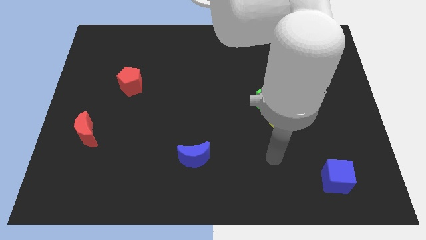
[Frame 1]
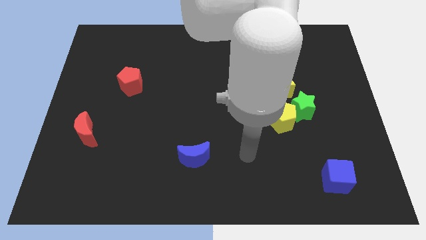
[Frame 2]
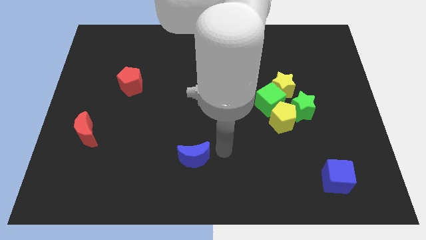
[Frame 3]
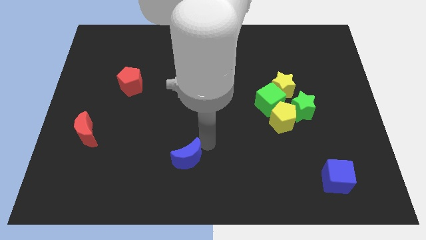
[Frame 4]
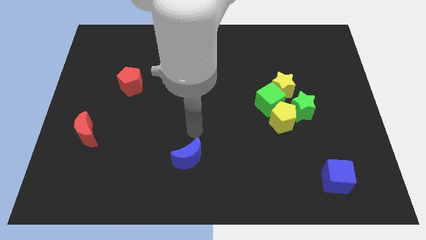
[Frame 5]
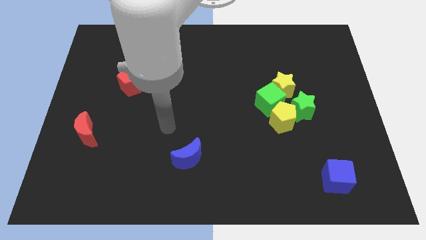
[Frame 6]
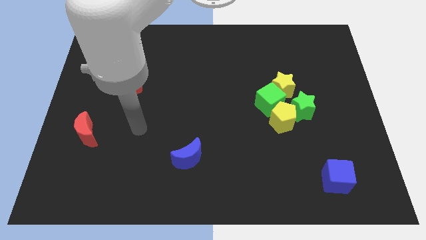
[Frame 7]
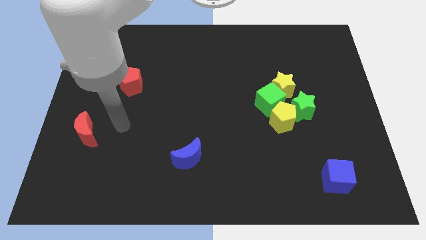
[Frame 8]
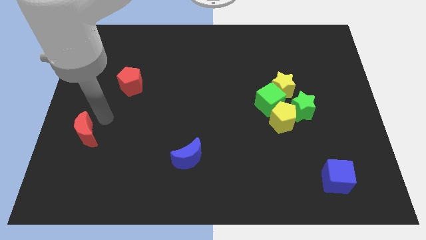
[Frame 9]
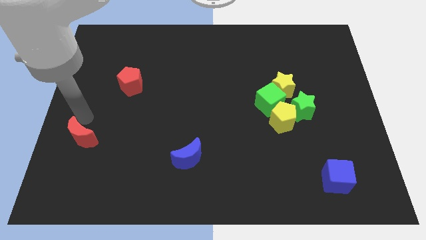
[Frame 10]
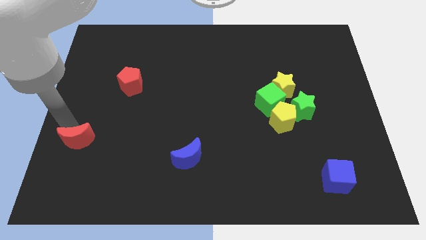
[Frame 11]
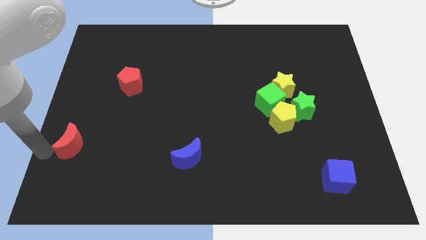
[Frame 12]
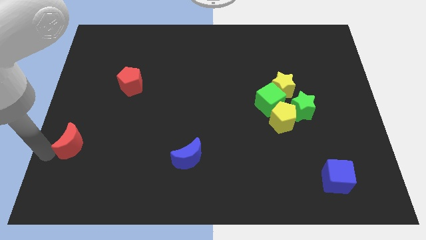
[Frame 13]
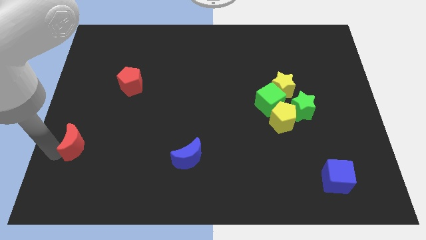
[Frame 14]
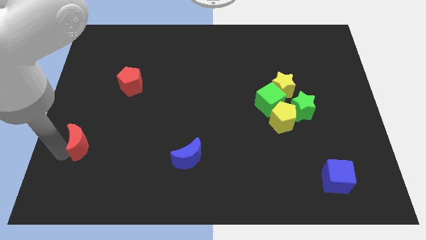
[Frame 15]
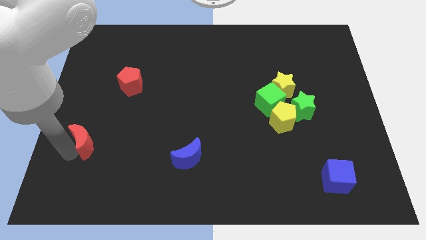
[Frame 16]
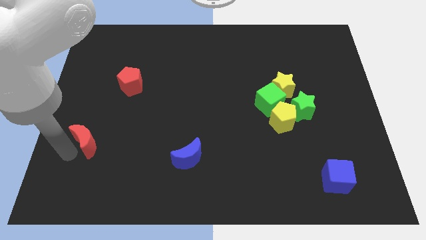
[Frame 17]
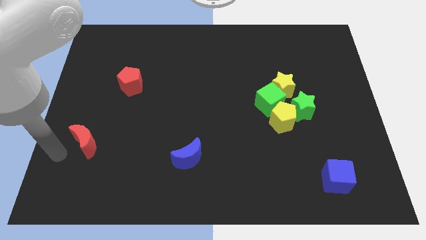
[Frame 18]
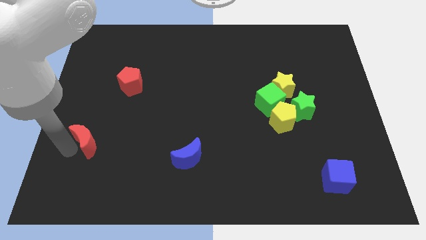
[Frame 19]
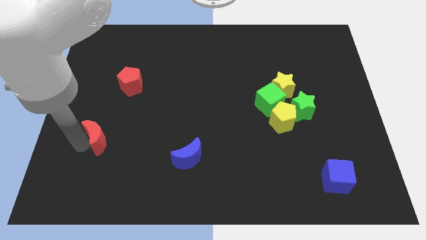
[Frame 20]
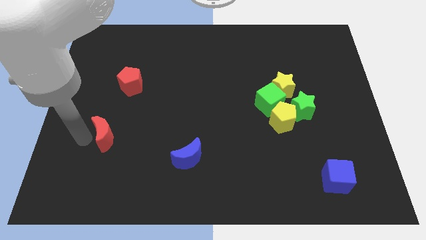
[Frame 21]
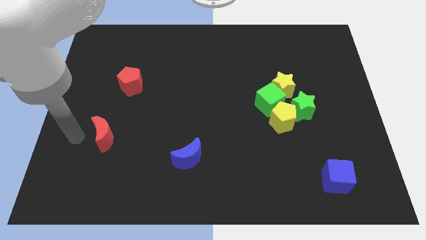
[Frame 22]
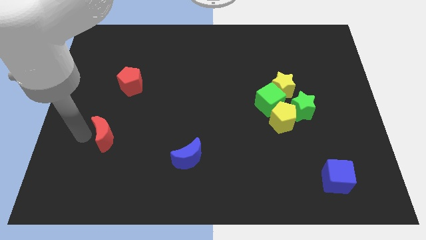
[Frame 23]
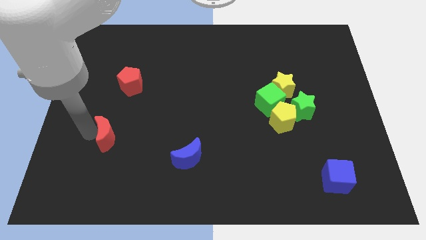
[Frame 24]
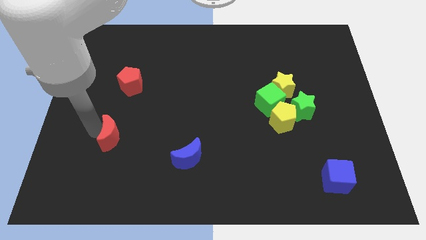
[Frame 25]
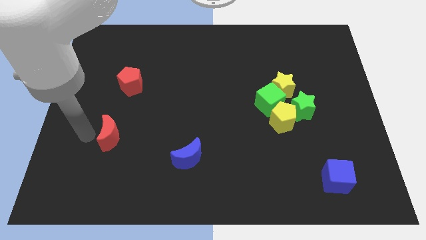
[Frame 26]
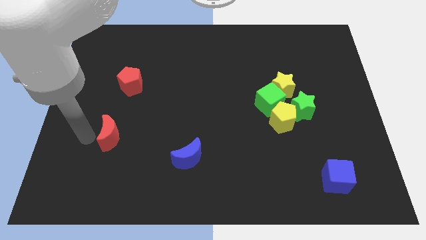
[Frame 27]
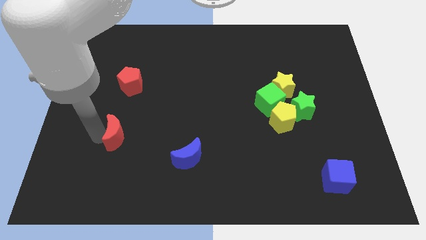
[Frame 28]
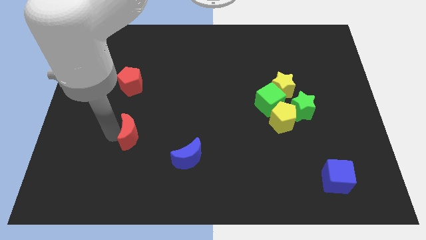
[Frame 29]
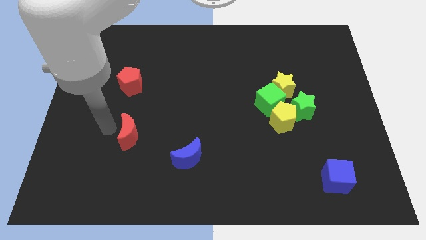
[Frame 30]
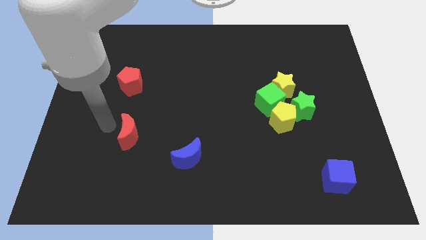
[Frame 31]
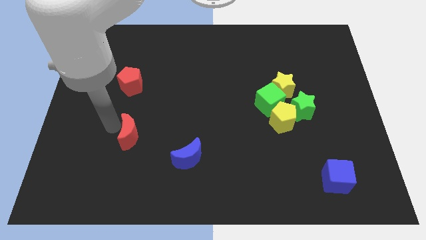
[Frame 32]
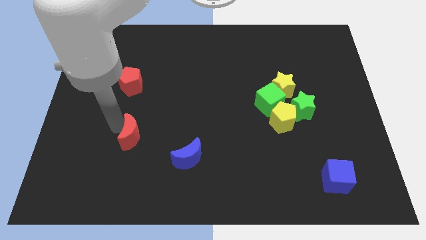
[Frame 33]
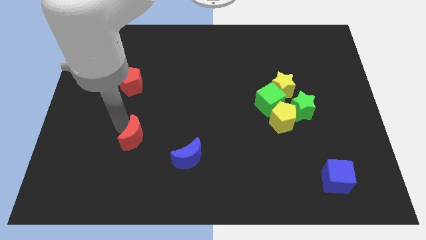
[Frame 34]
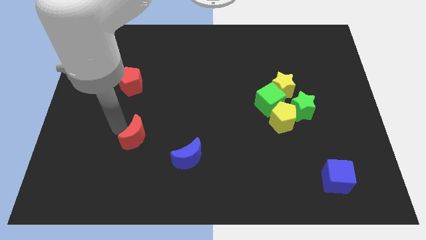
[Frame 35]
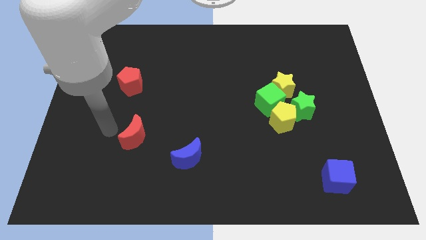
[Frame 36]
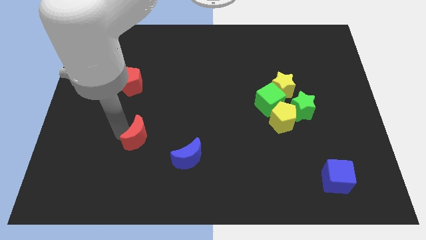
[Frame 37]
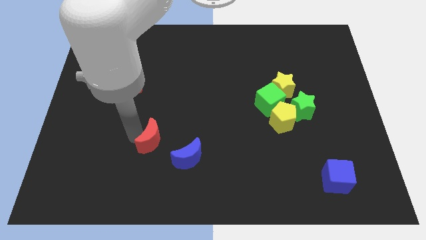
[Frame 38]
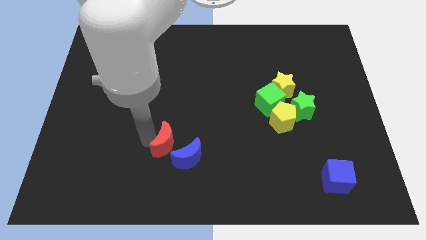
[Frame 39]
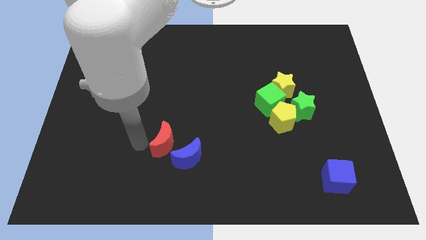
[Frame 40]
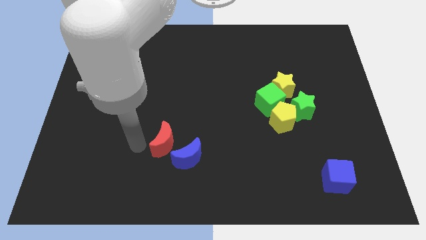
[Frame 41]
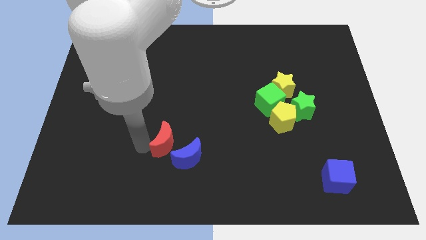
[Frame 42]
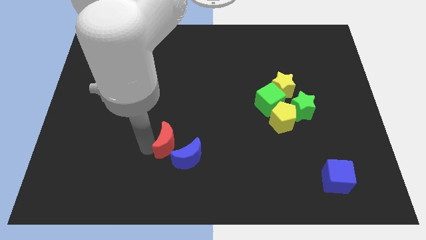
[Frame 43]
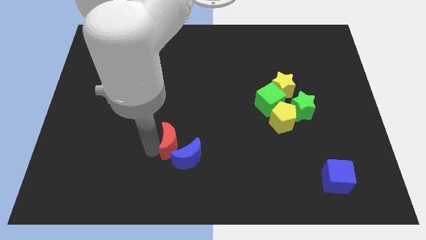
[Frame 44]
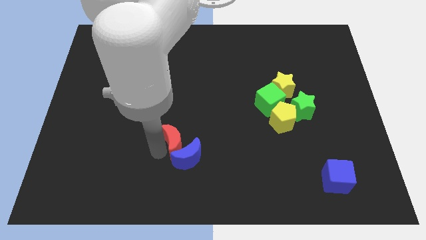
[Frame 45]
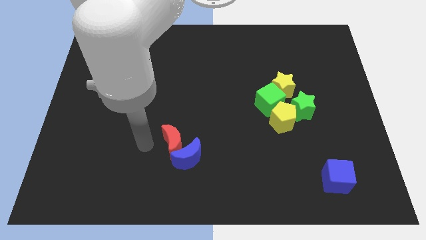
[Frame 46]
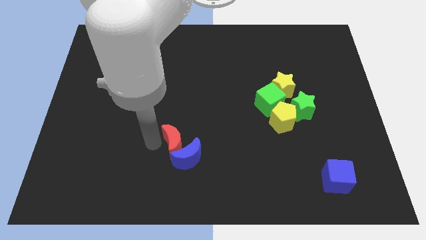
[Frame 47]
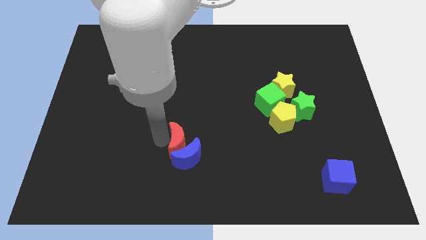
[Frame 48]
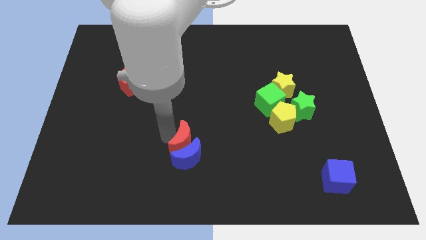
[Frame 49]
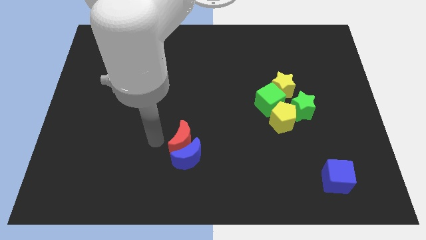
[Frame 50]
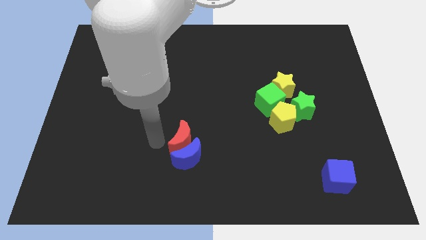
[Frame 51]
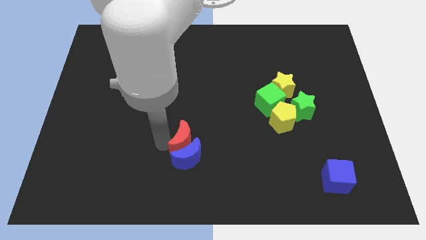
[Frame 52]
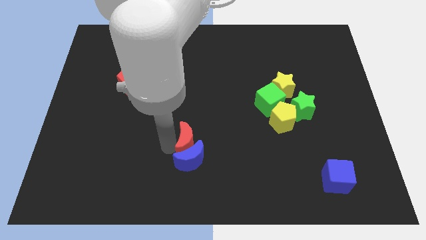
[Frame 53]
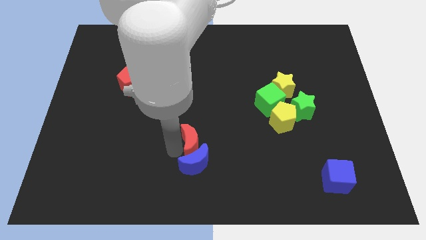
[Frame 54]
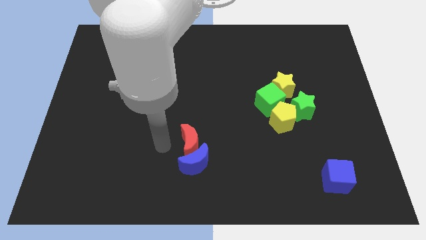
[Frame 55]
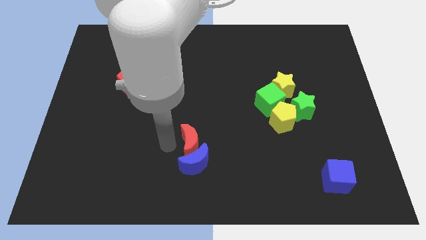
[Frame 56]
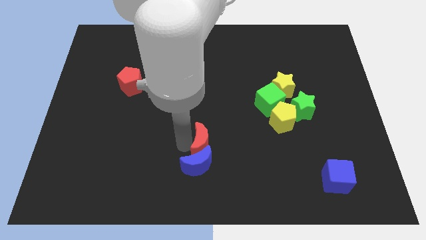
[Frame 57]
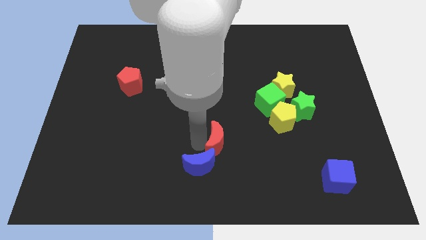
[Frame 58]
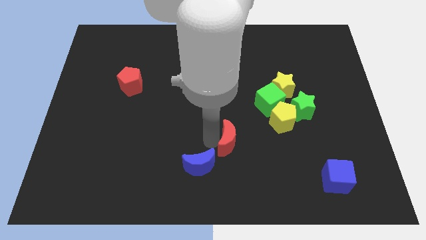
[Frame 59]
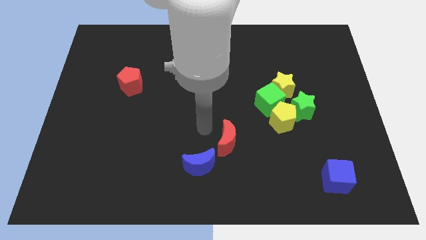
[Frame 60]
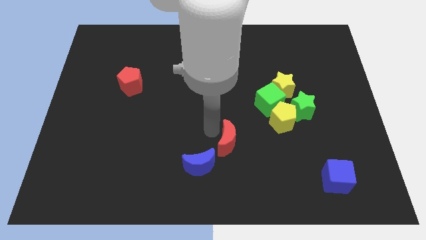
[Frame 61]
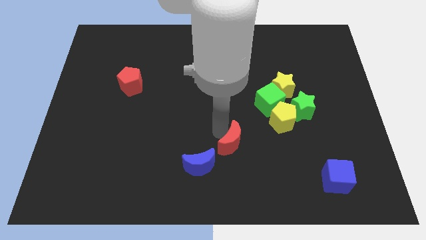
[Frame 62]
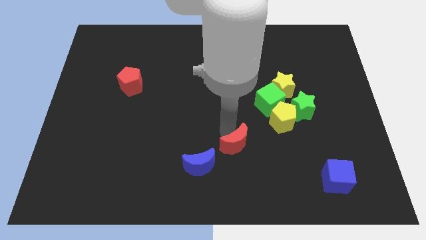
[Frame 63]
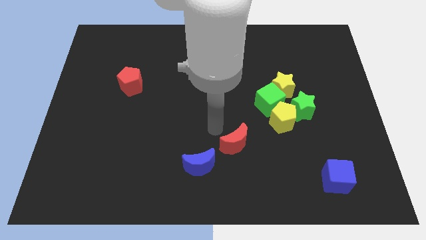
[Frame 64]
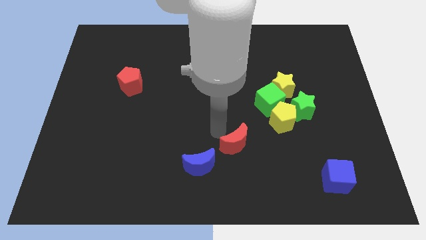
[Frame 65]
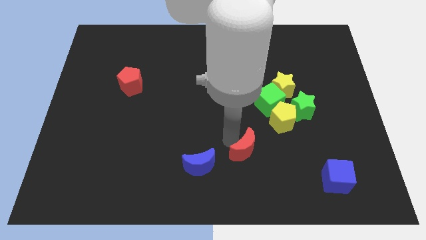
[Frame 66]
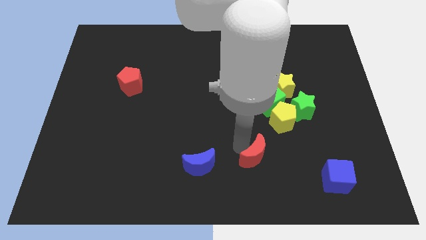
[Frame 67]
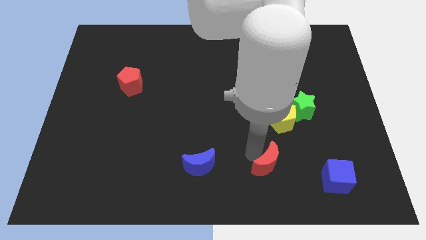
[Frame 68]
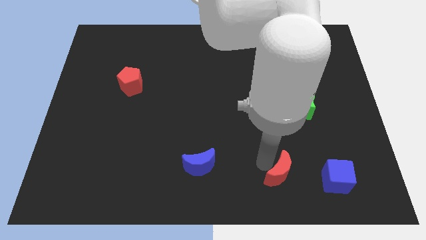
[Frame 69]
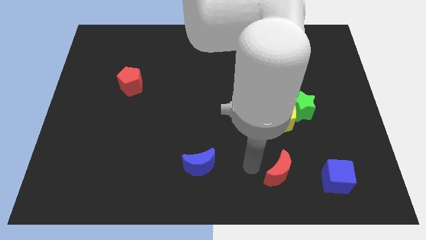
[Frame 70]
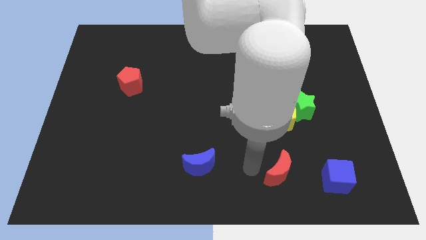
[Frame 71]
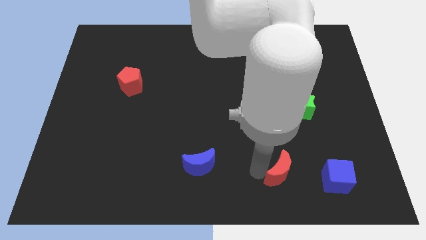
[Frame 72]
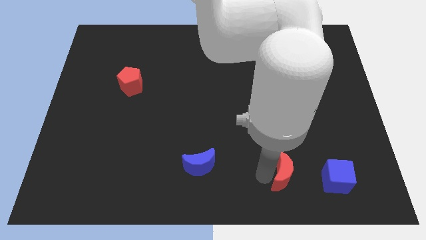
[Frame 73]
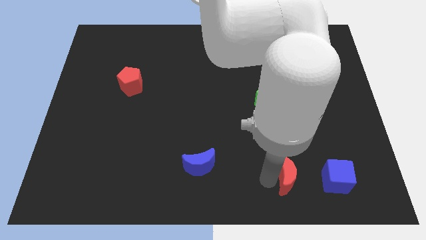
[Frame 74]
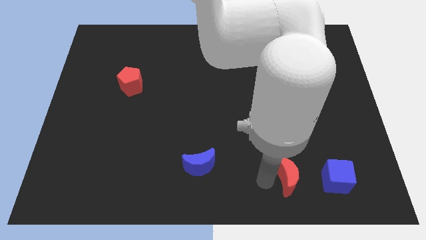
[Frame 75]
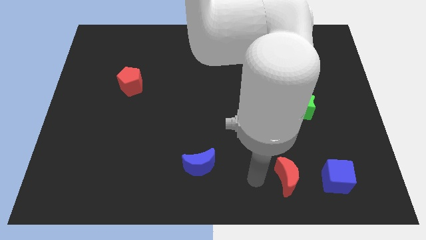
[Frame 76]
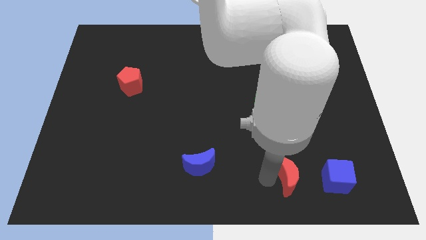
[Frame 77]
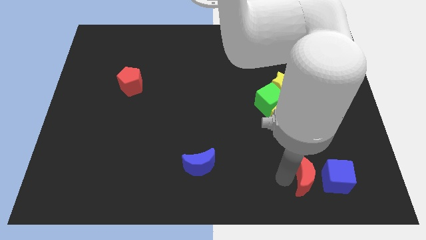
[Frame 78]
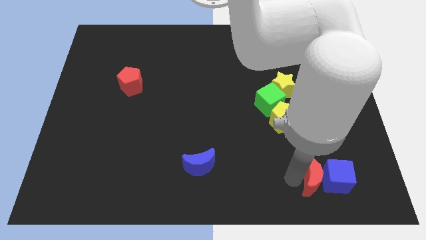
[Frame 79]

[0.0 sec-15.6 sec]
move the red moon next to the blue cube

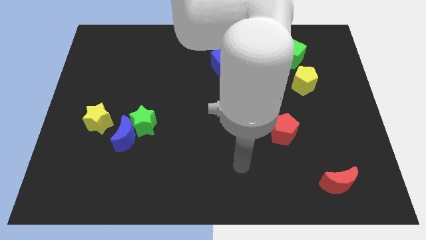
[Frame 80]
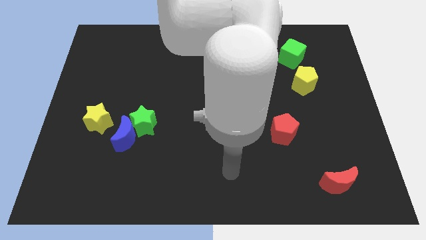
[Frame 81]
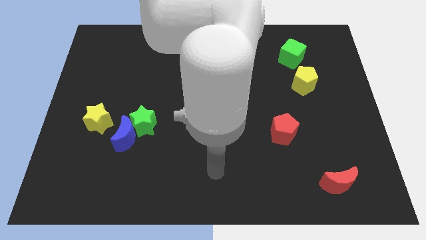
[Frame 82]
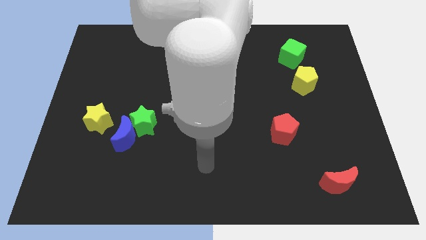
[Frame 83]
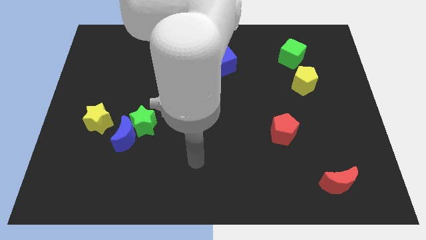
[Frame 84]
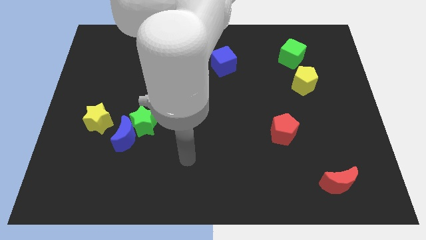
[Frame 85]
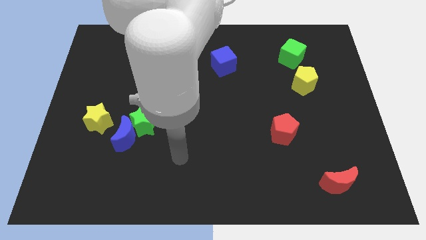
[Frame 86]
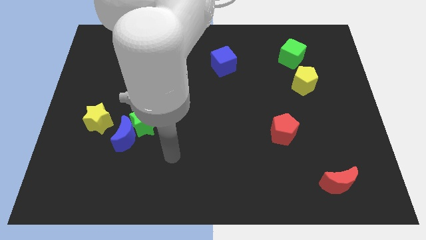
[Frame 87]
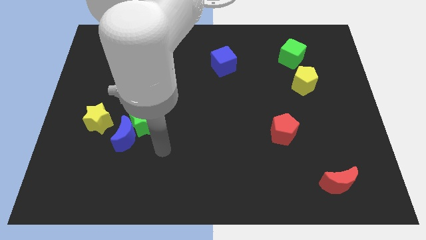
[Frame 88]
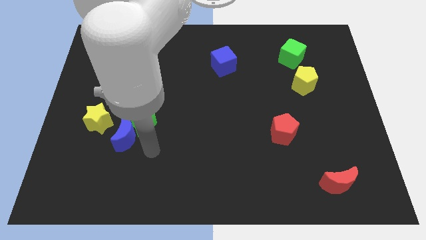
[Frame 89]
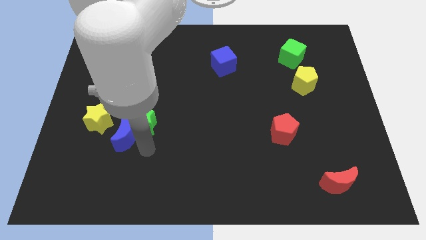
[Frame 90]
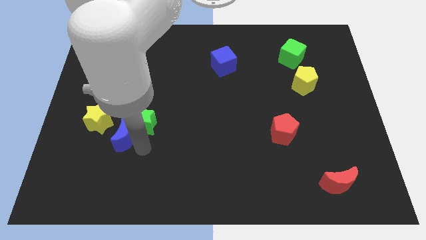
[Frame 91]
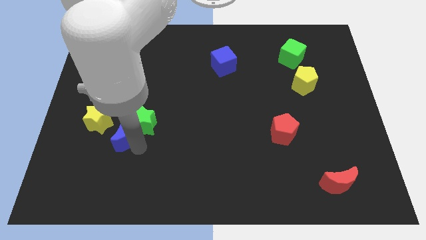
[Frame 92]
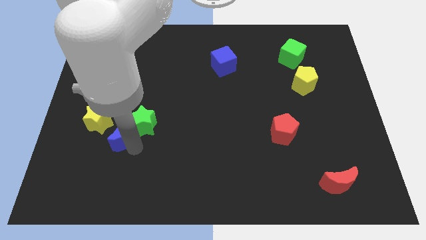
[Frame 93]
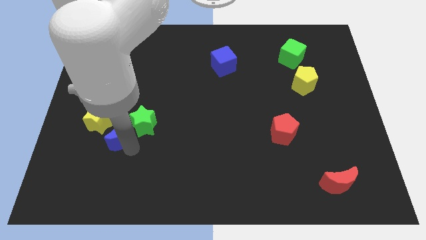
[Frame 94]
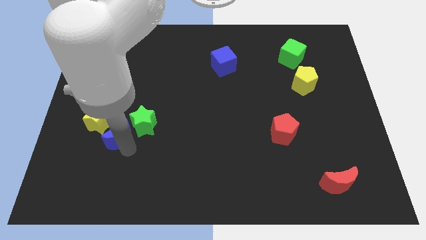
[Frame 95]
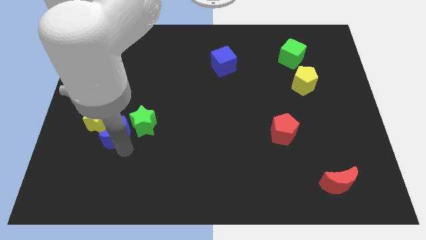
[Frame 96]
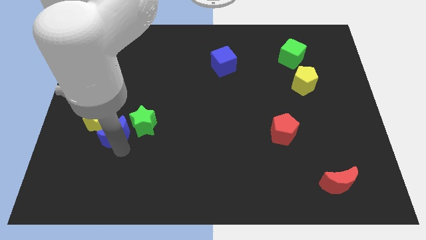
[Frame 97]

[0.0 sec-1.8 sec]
move the blue moon close to the yellow star
